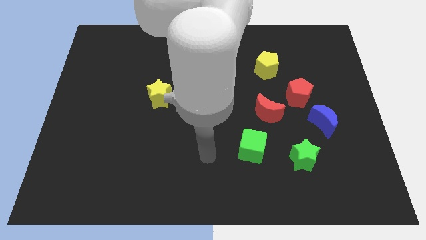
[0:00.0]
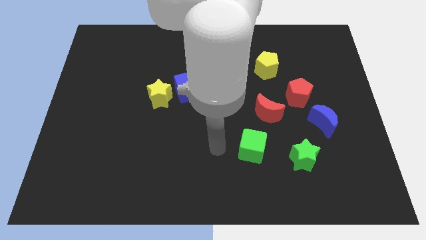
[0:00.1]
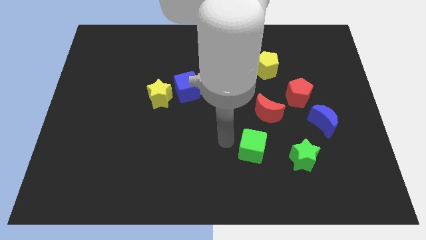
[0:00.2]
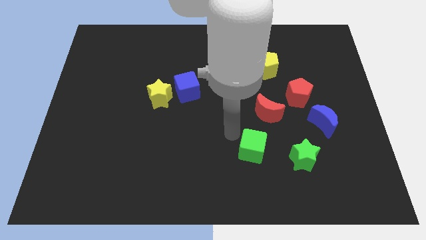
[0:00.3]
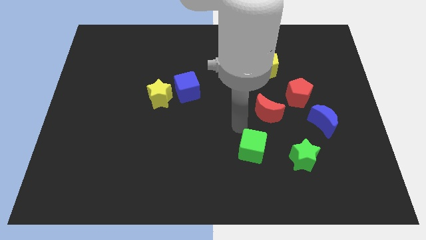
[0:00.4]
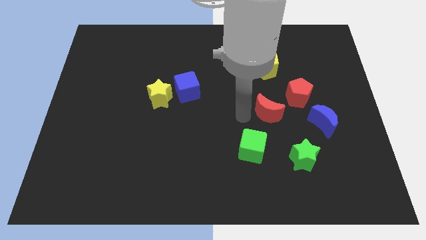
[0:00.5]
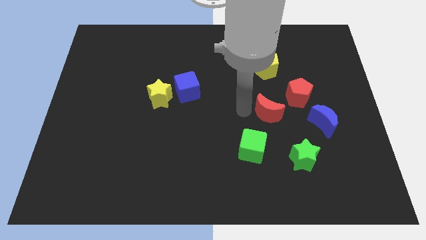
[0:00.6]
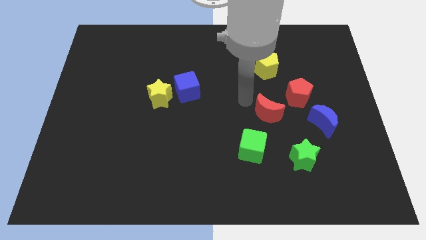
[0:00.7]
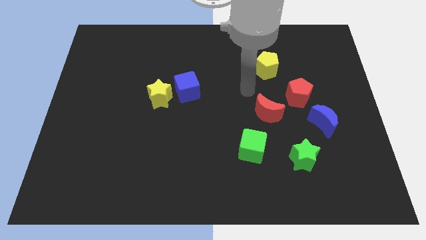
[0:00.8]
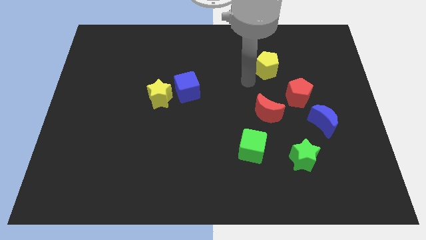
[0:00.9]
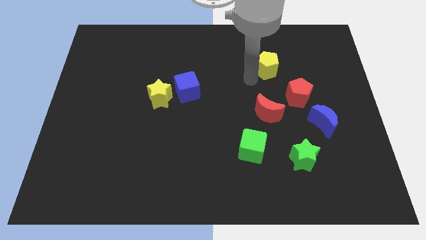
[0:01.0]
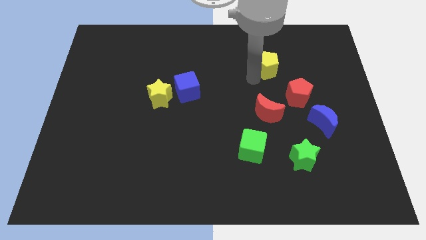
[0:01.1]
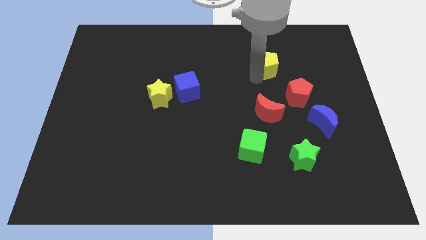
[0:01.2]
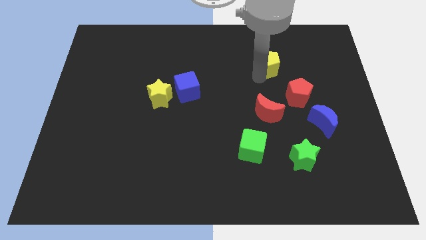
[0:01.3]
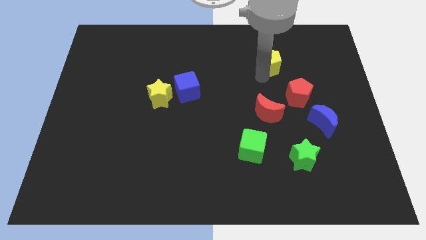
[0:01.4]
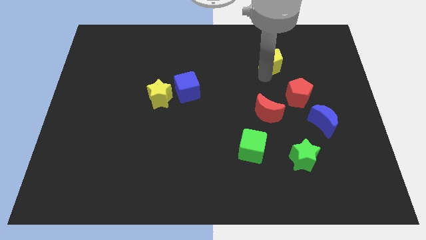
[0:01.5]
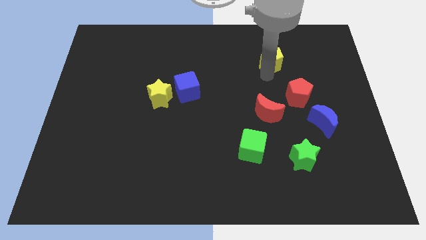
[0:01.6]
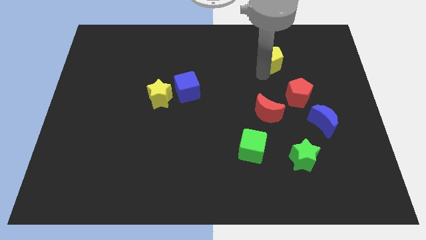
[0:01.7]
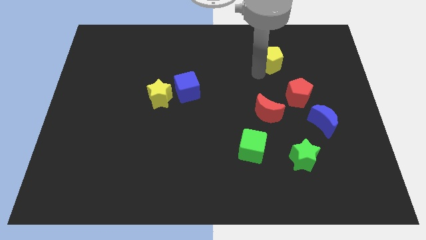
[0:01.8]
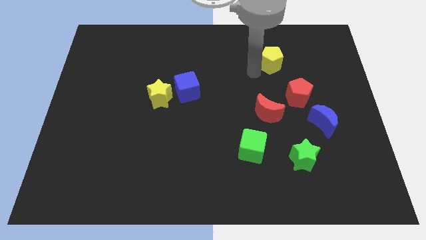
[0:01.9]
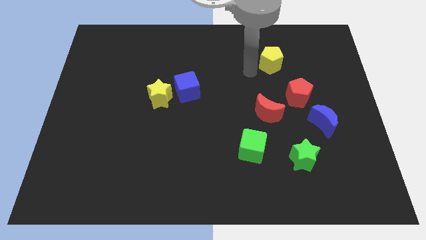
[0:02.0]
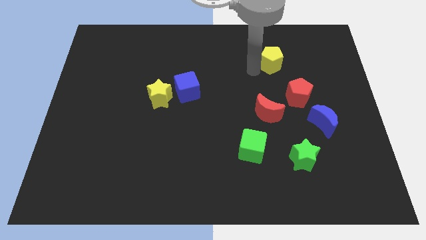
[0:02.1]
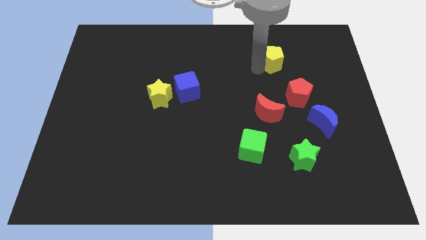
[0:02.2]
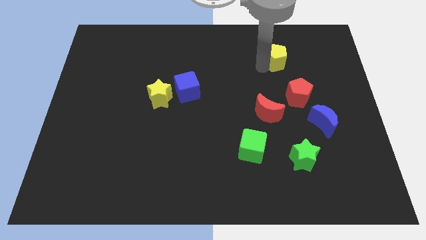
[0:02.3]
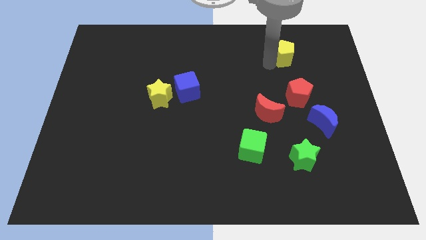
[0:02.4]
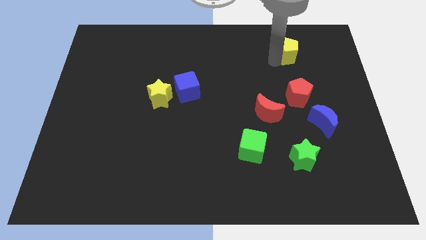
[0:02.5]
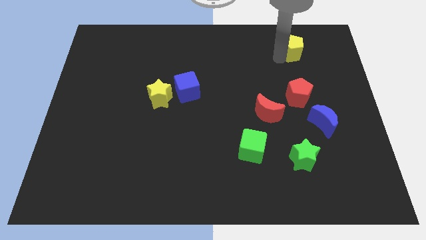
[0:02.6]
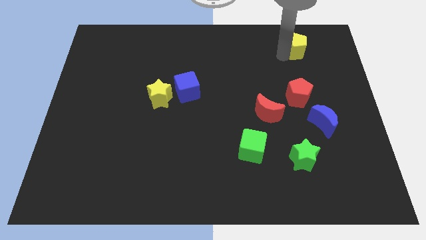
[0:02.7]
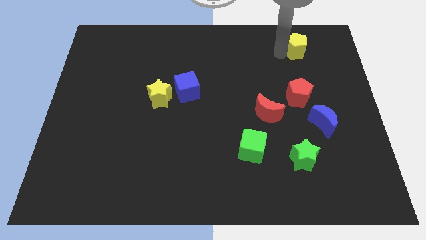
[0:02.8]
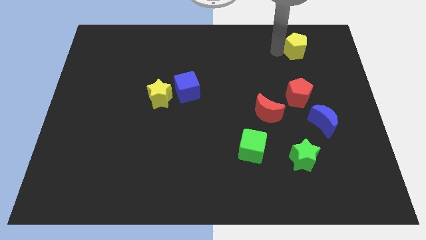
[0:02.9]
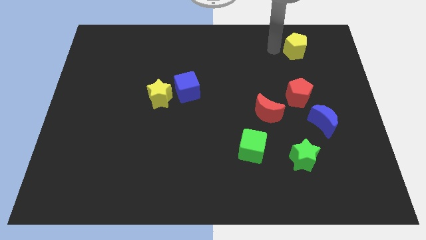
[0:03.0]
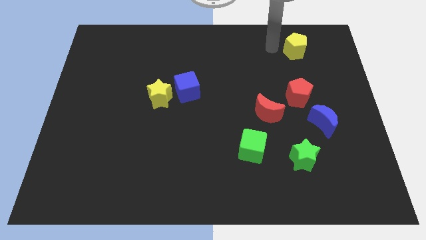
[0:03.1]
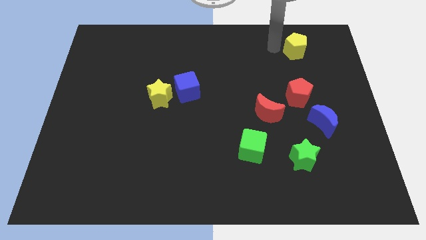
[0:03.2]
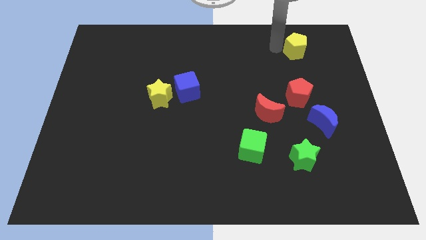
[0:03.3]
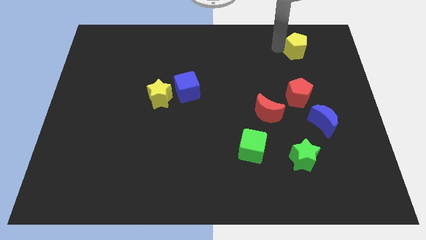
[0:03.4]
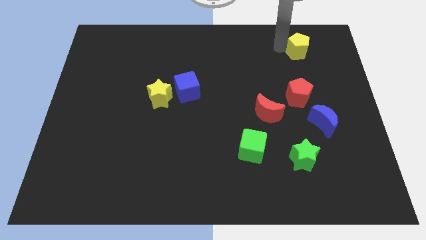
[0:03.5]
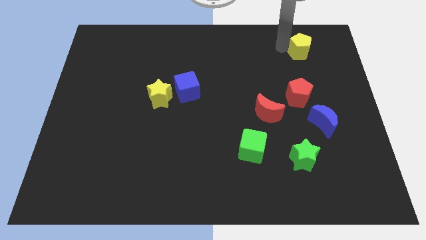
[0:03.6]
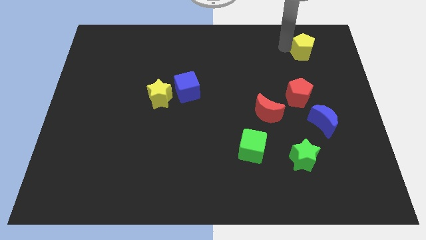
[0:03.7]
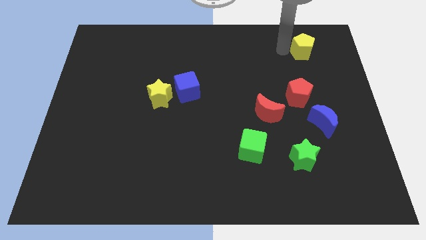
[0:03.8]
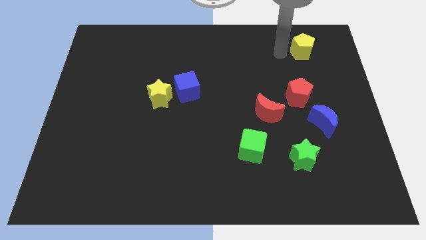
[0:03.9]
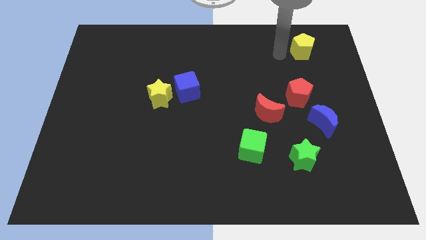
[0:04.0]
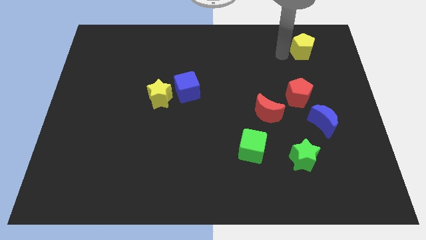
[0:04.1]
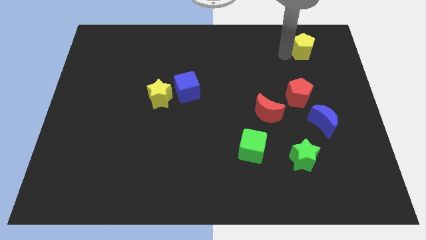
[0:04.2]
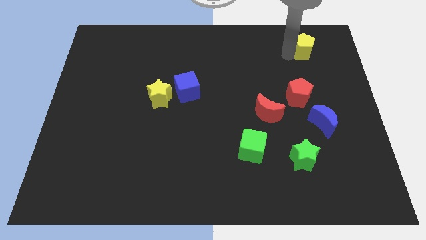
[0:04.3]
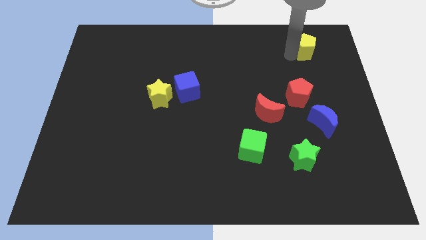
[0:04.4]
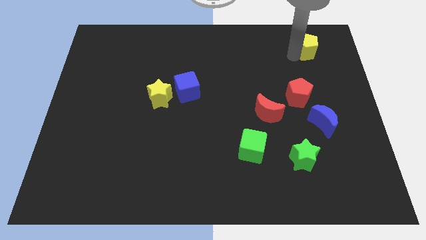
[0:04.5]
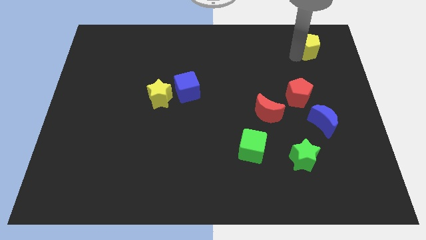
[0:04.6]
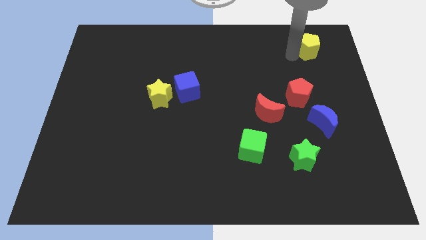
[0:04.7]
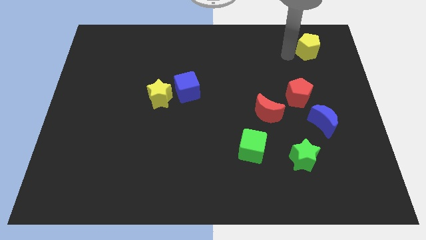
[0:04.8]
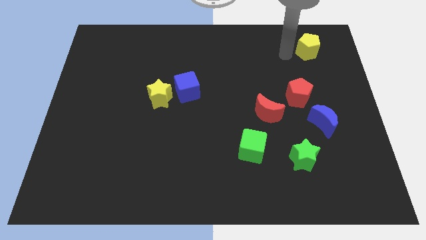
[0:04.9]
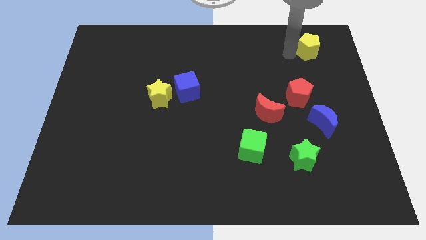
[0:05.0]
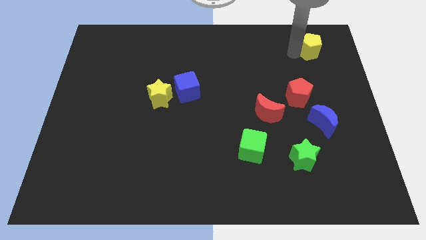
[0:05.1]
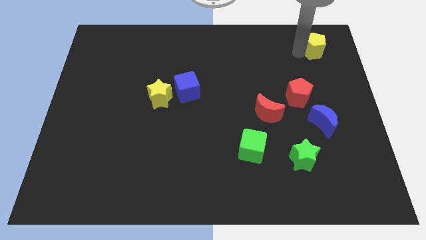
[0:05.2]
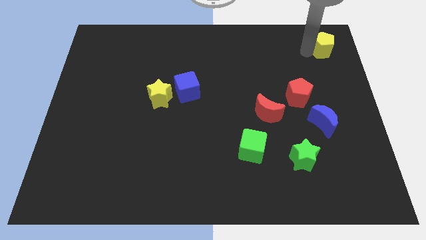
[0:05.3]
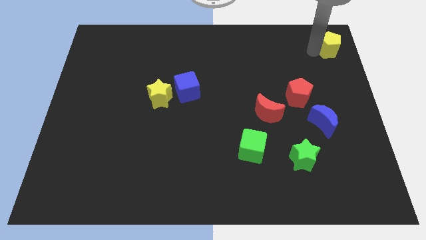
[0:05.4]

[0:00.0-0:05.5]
slide the yellow pentagon to the top right corner
